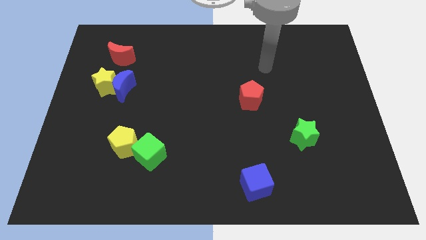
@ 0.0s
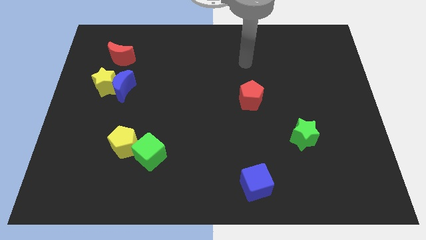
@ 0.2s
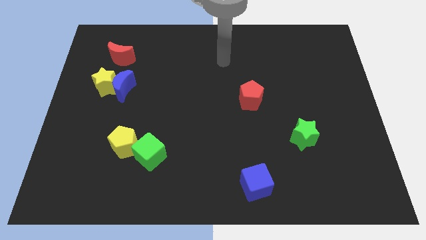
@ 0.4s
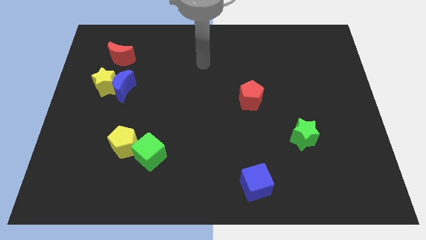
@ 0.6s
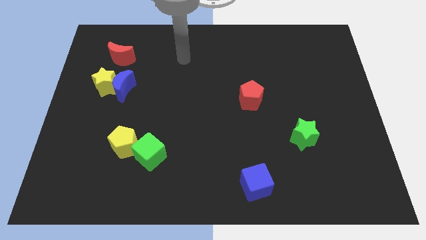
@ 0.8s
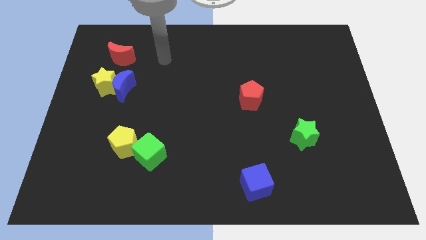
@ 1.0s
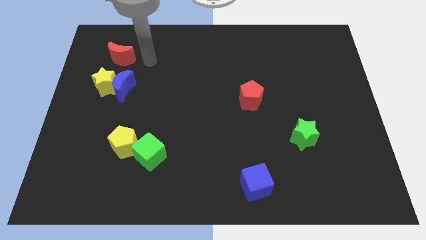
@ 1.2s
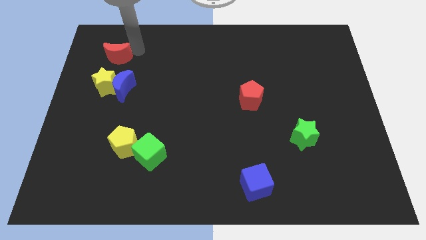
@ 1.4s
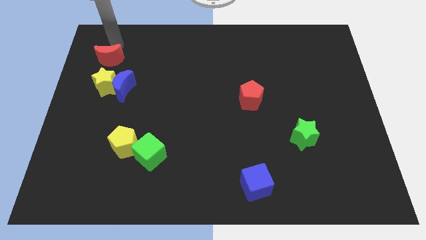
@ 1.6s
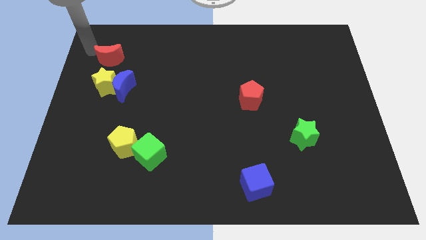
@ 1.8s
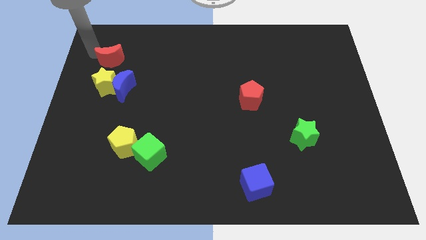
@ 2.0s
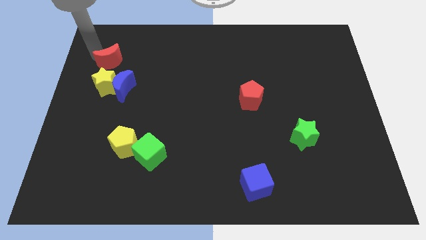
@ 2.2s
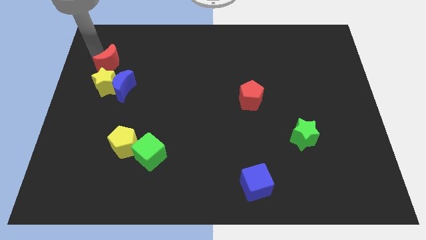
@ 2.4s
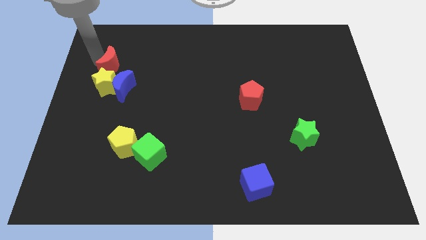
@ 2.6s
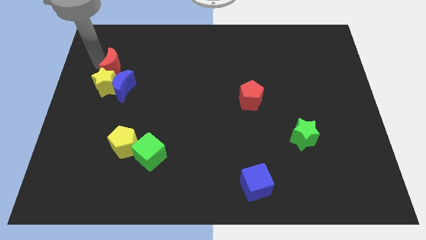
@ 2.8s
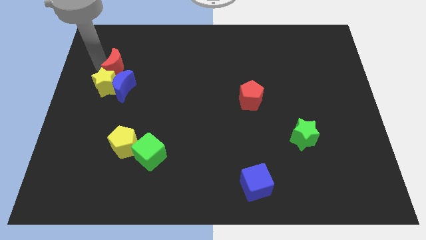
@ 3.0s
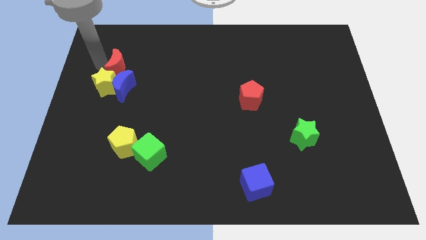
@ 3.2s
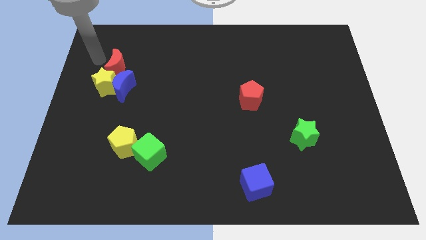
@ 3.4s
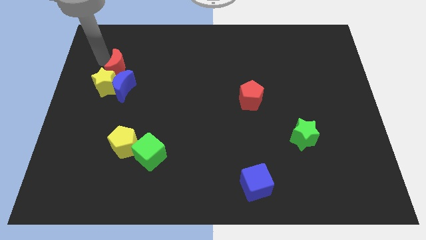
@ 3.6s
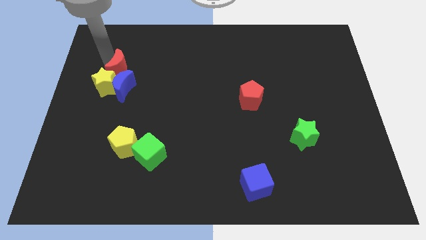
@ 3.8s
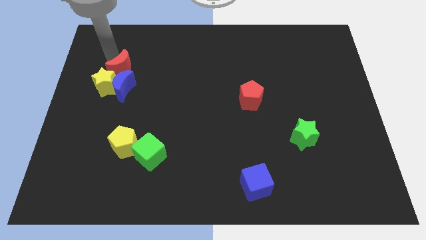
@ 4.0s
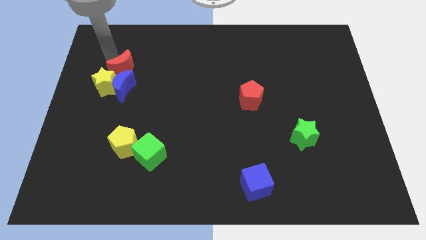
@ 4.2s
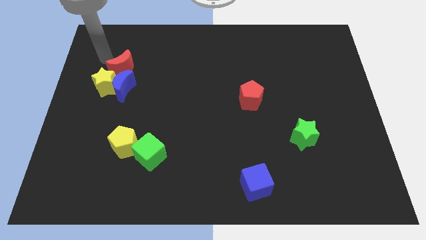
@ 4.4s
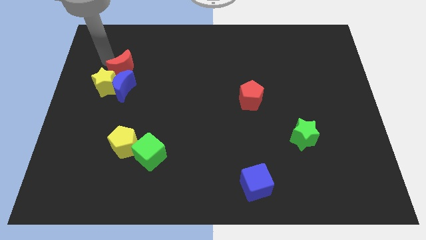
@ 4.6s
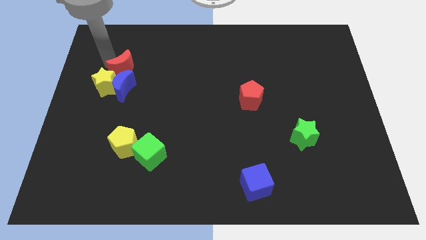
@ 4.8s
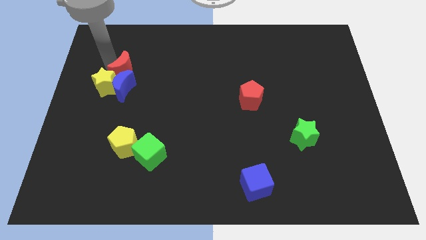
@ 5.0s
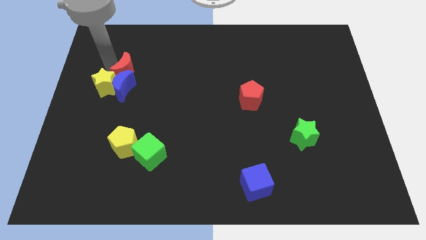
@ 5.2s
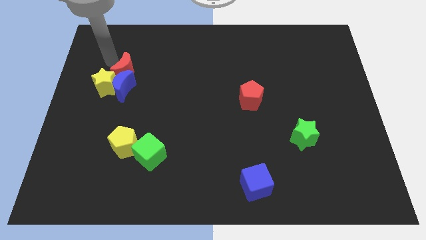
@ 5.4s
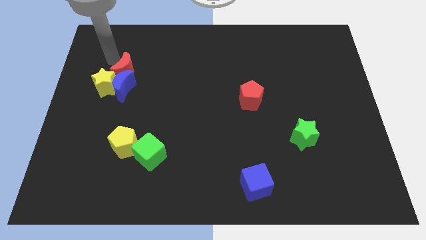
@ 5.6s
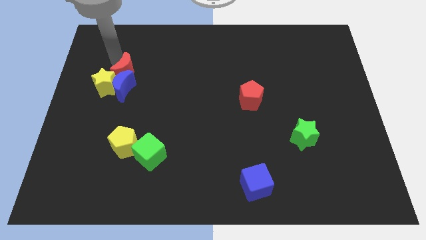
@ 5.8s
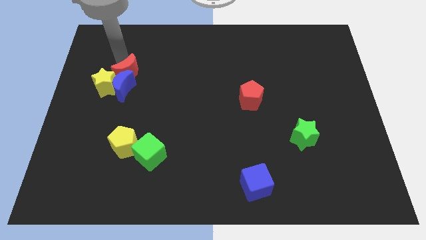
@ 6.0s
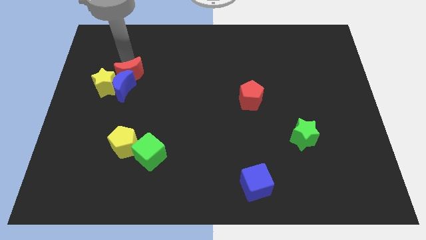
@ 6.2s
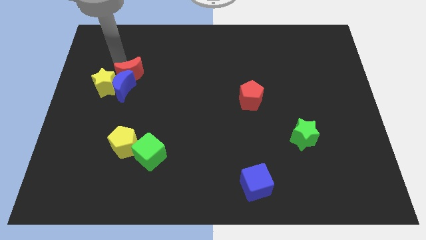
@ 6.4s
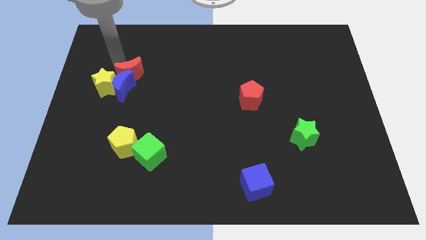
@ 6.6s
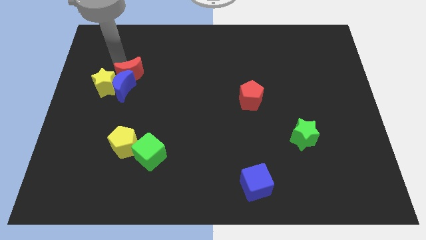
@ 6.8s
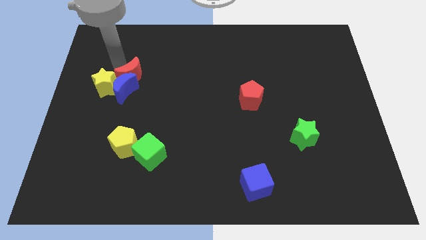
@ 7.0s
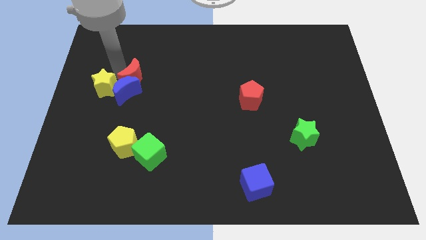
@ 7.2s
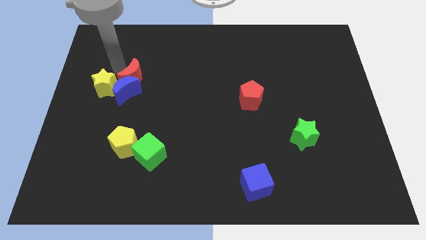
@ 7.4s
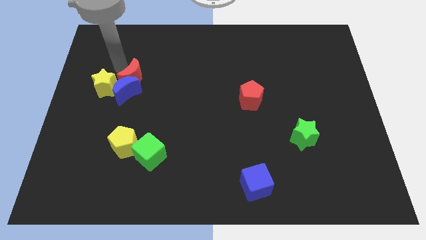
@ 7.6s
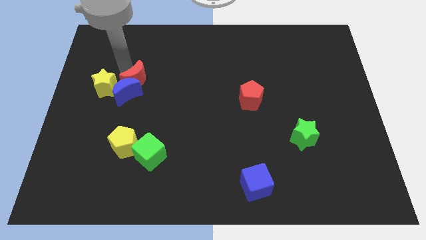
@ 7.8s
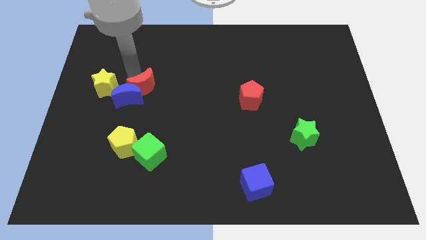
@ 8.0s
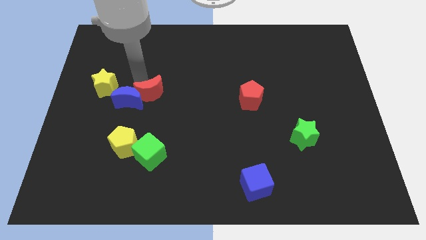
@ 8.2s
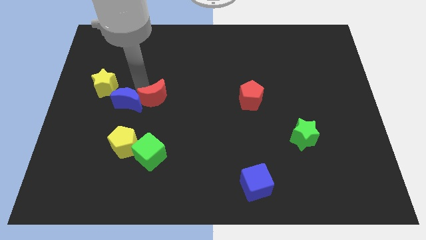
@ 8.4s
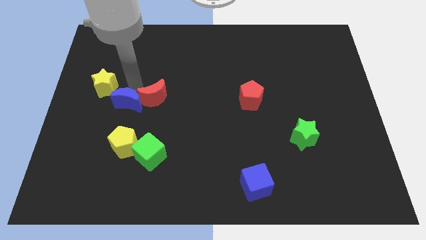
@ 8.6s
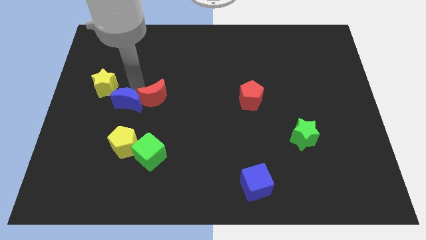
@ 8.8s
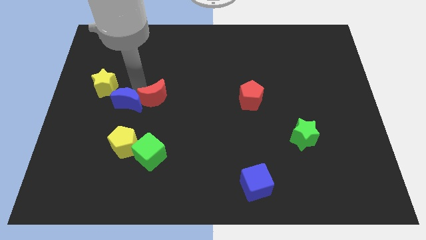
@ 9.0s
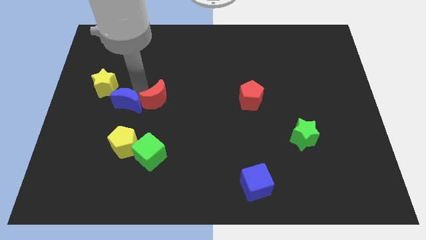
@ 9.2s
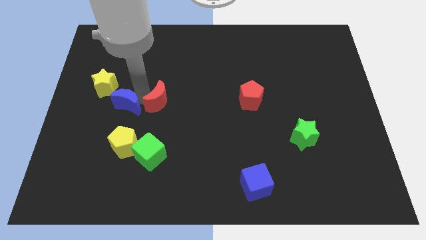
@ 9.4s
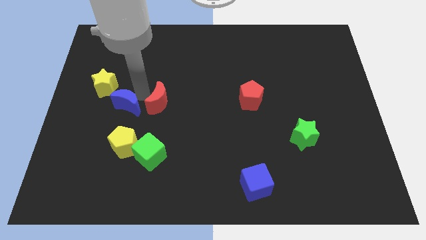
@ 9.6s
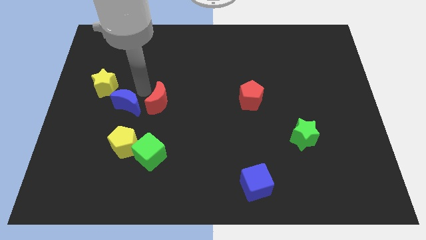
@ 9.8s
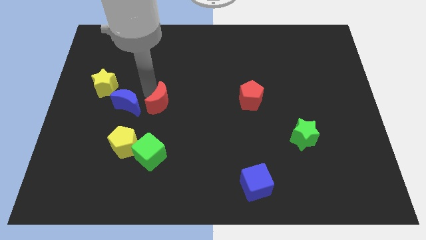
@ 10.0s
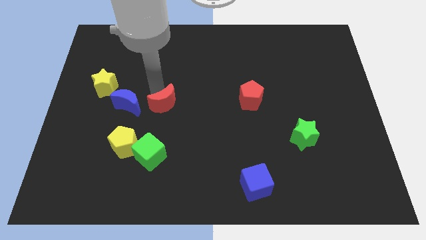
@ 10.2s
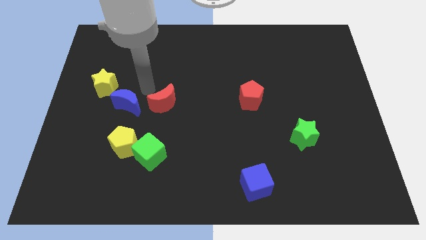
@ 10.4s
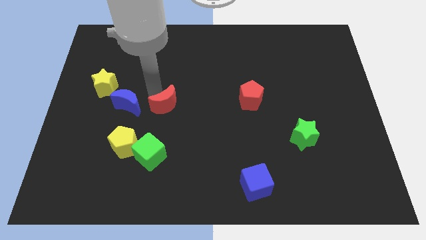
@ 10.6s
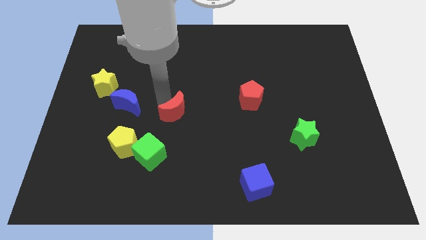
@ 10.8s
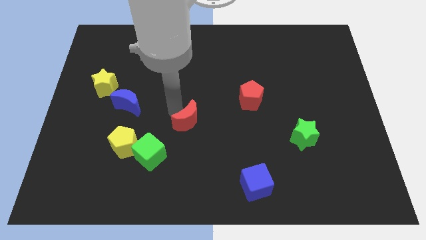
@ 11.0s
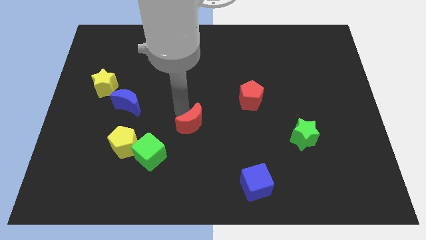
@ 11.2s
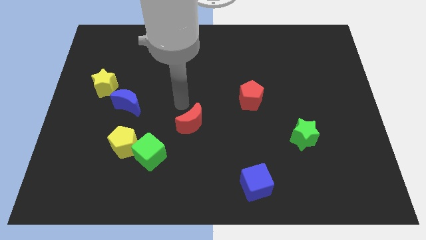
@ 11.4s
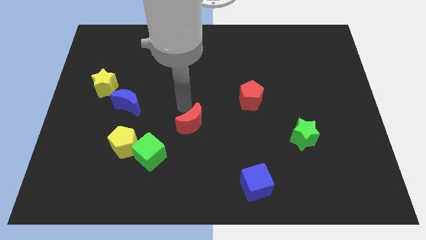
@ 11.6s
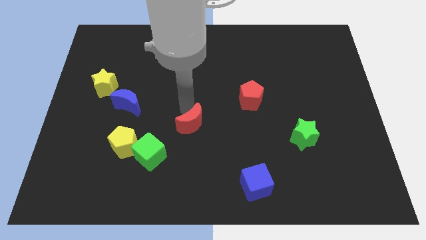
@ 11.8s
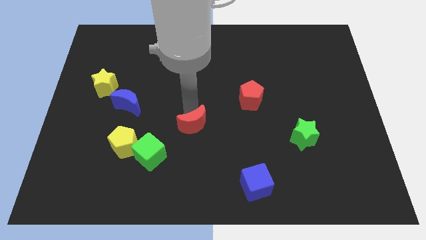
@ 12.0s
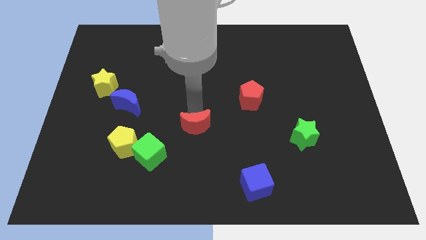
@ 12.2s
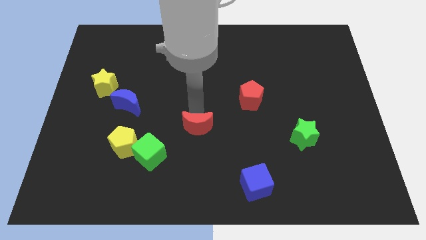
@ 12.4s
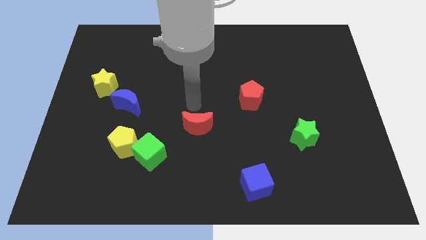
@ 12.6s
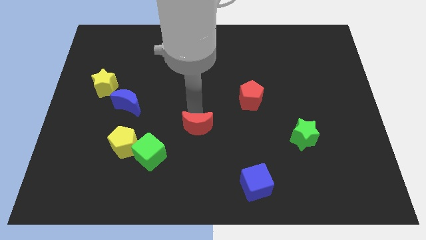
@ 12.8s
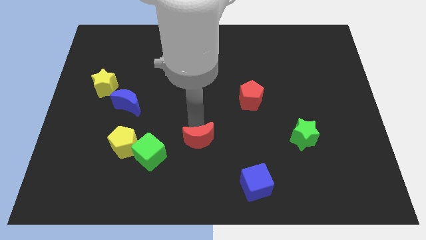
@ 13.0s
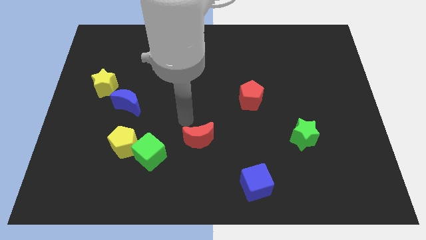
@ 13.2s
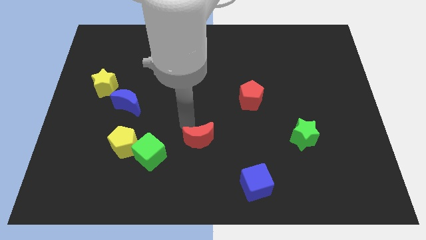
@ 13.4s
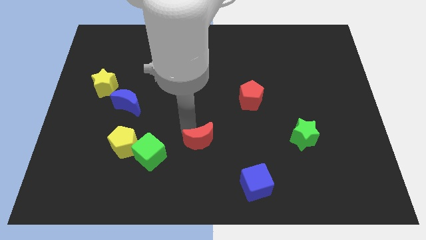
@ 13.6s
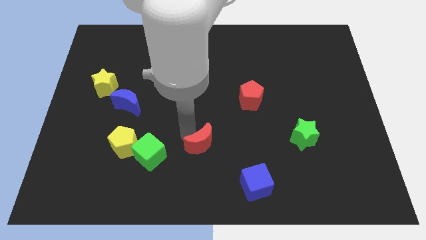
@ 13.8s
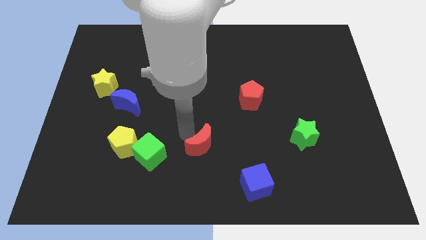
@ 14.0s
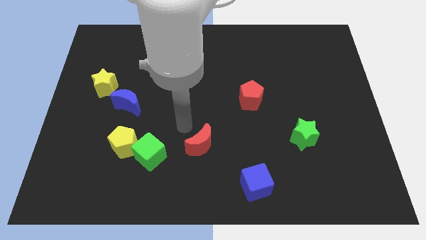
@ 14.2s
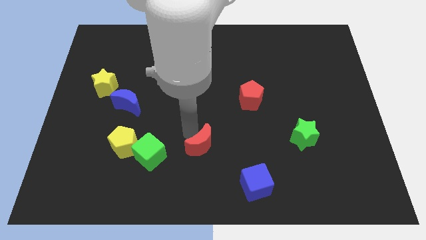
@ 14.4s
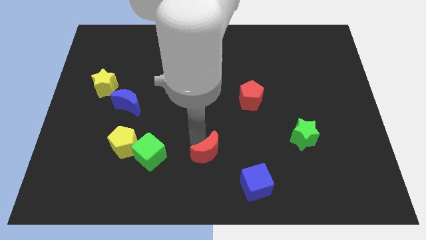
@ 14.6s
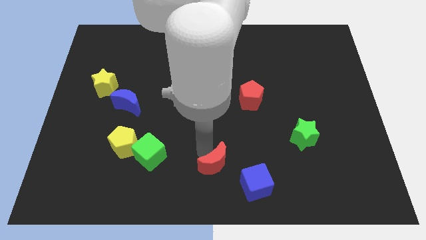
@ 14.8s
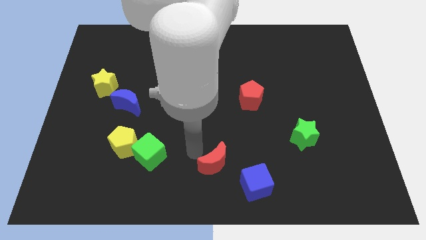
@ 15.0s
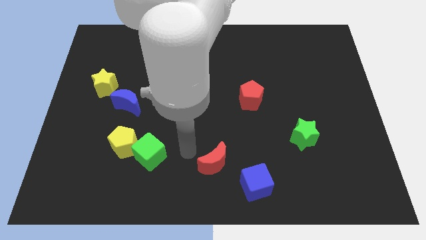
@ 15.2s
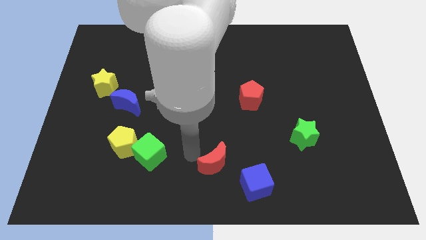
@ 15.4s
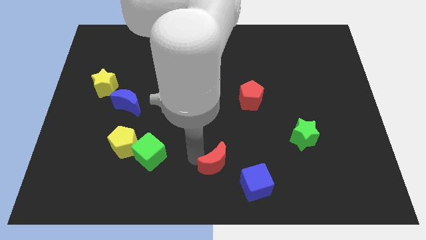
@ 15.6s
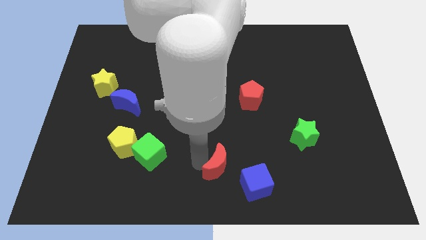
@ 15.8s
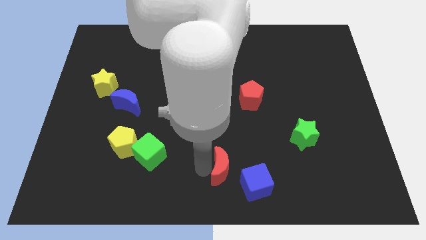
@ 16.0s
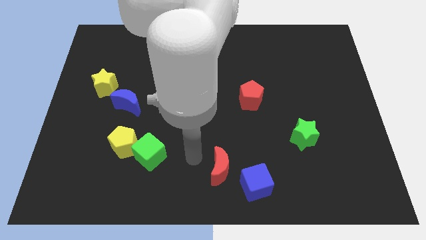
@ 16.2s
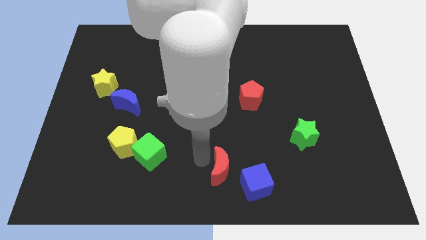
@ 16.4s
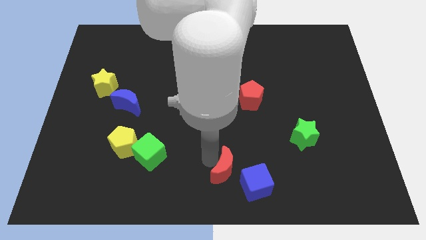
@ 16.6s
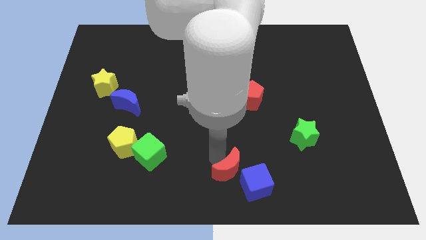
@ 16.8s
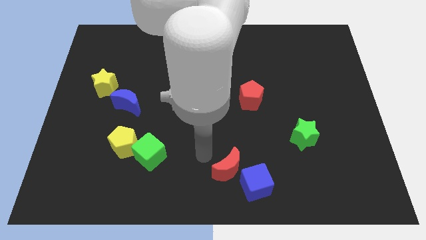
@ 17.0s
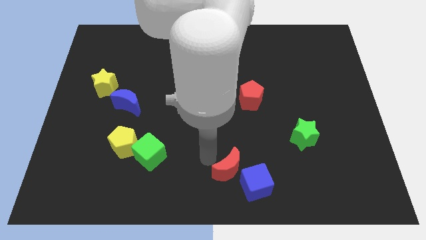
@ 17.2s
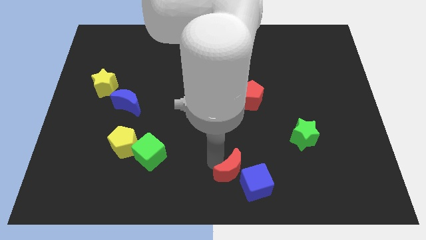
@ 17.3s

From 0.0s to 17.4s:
slide the red moon close to the blue cube
